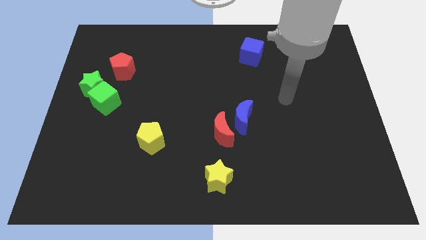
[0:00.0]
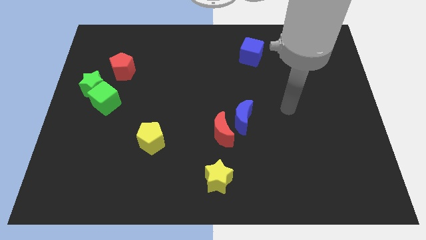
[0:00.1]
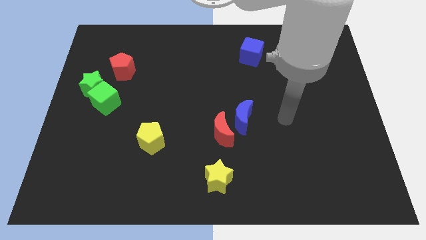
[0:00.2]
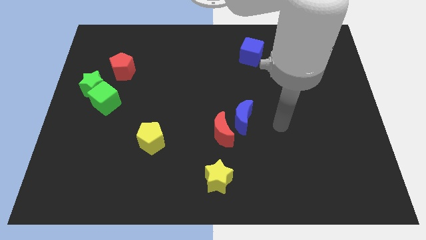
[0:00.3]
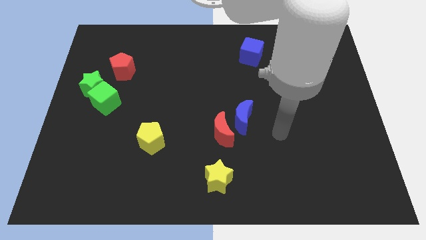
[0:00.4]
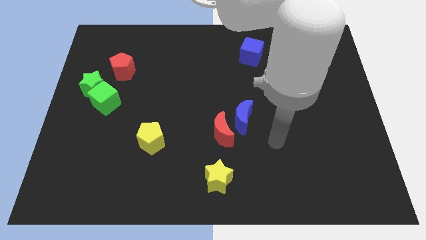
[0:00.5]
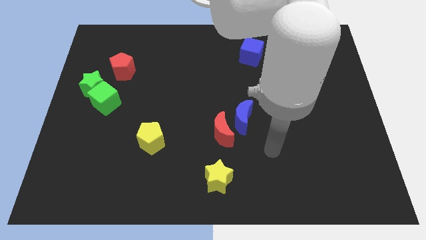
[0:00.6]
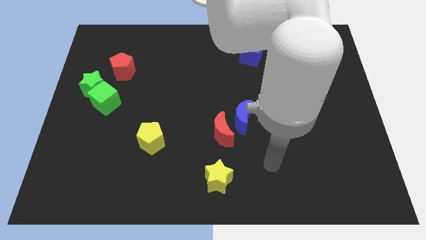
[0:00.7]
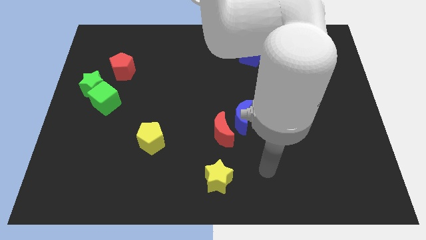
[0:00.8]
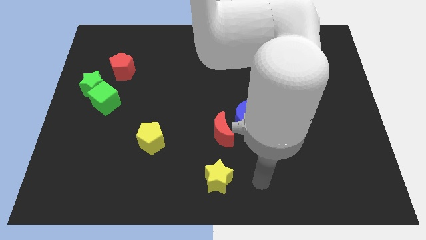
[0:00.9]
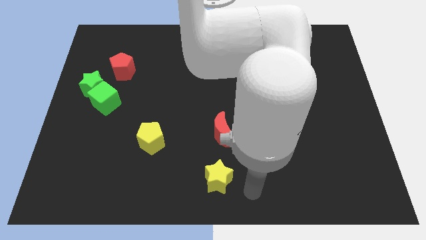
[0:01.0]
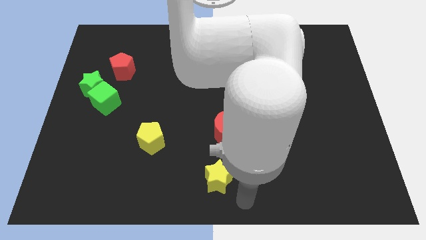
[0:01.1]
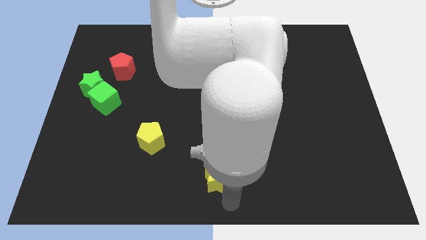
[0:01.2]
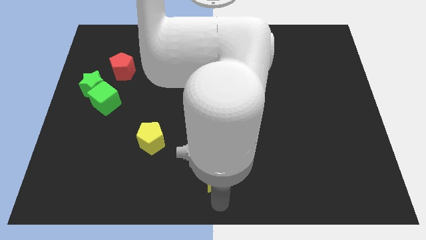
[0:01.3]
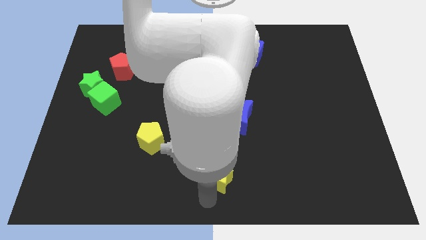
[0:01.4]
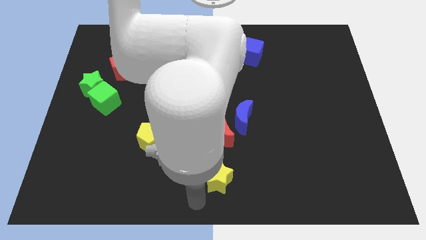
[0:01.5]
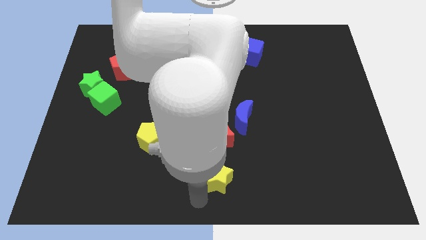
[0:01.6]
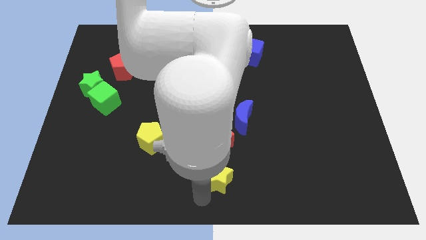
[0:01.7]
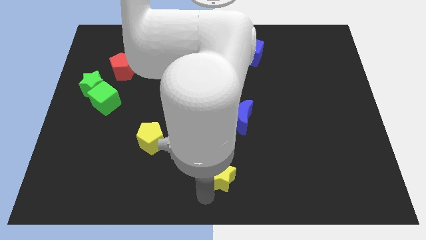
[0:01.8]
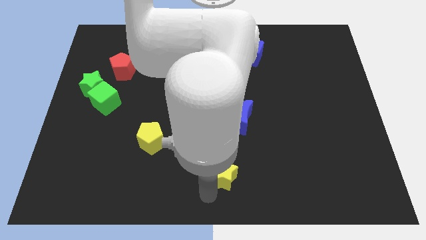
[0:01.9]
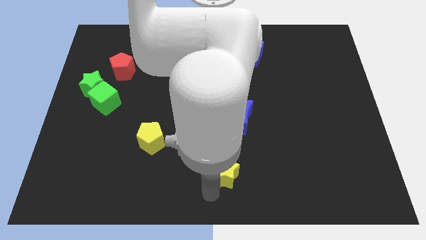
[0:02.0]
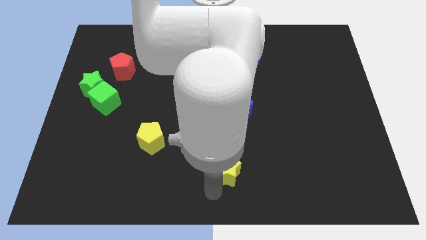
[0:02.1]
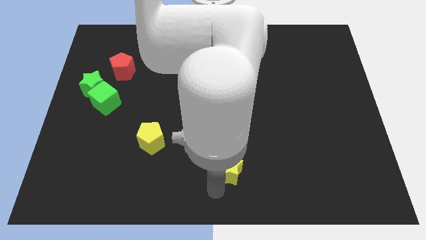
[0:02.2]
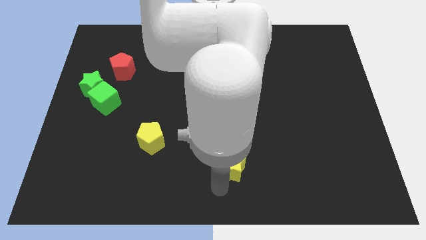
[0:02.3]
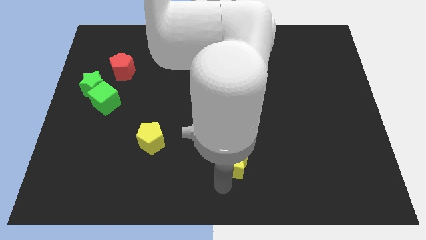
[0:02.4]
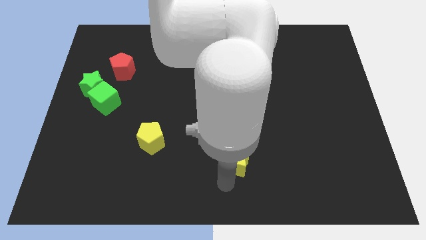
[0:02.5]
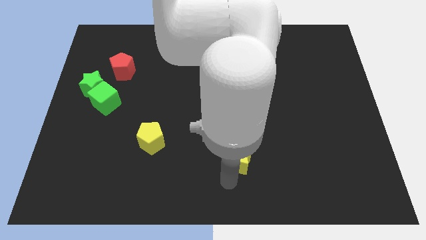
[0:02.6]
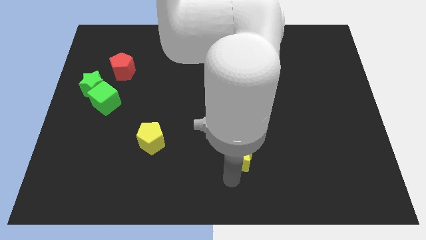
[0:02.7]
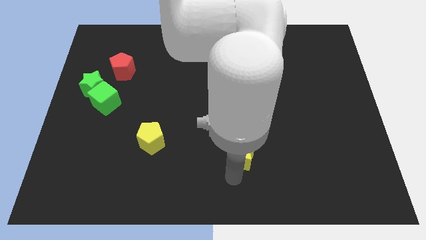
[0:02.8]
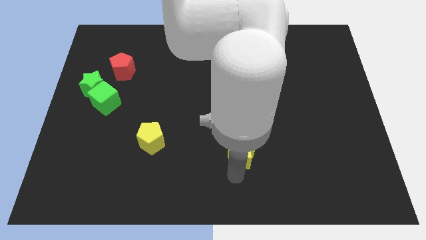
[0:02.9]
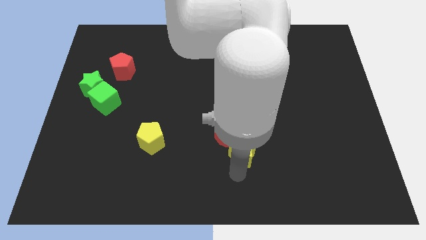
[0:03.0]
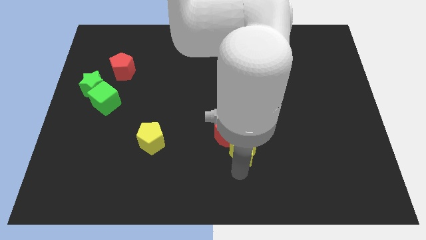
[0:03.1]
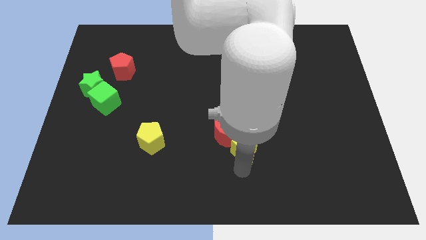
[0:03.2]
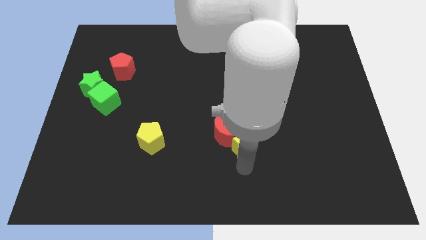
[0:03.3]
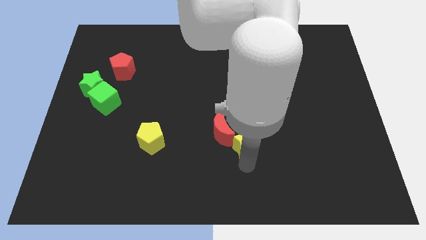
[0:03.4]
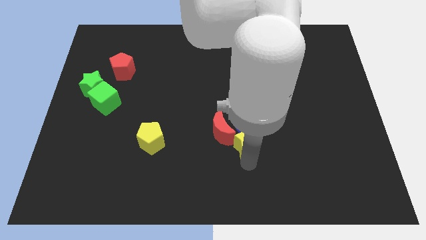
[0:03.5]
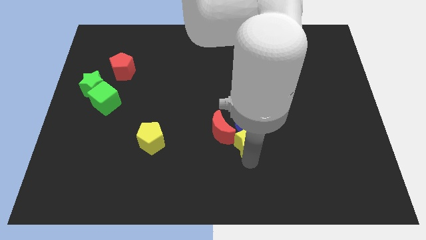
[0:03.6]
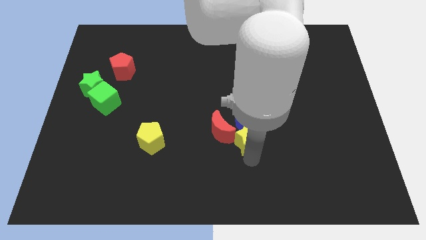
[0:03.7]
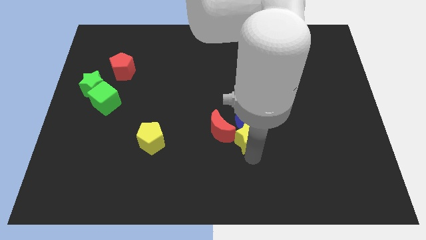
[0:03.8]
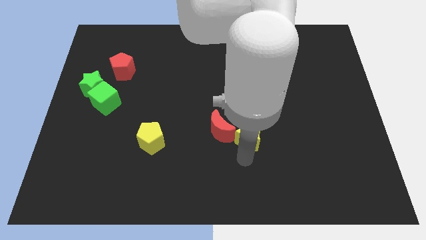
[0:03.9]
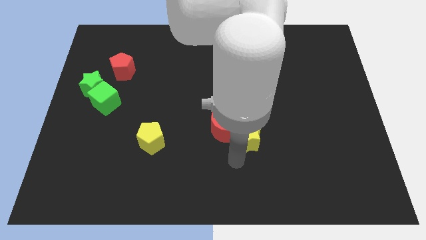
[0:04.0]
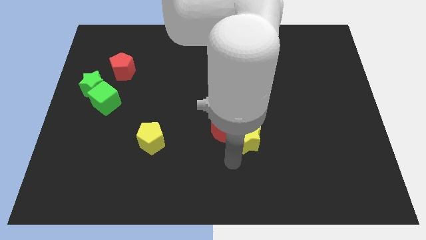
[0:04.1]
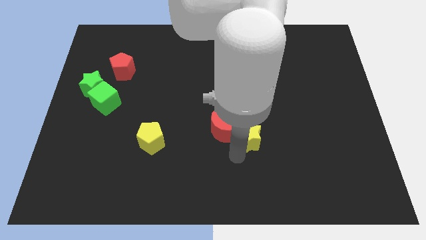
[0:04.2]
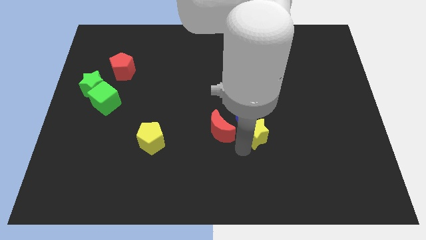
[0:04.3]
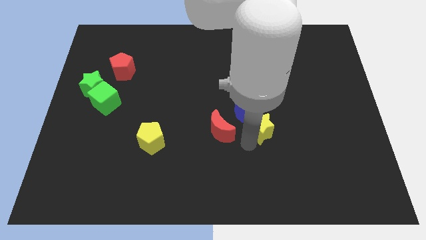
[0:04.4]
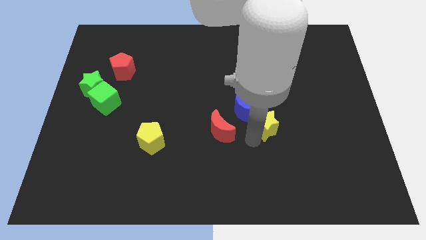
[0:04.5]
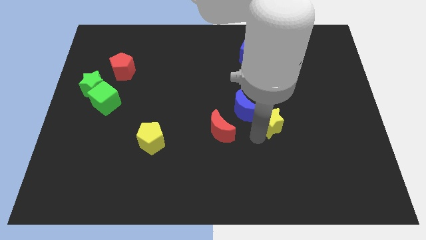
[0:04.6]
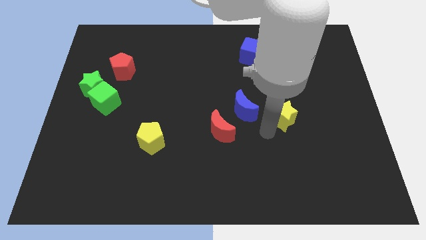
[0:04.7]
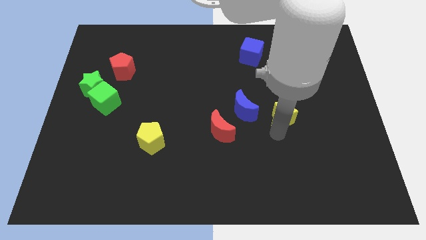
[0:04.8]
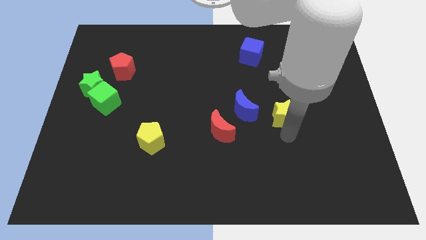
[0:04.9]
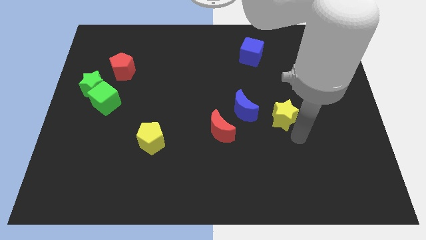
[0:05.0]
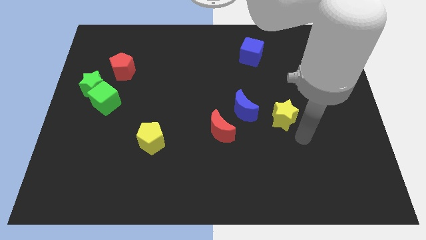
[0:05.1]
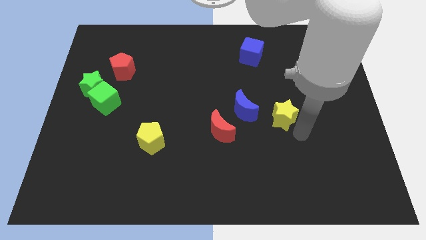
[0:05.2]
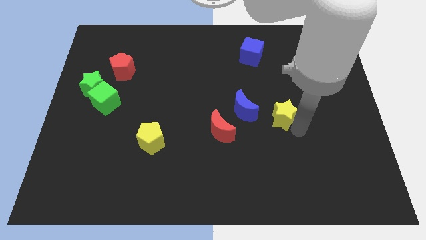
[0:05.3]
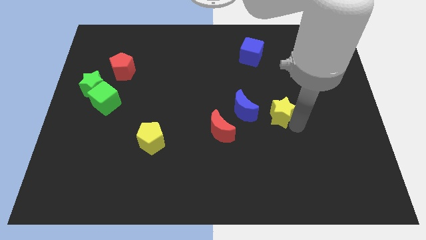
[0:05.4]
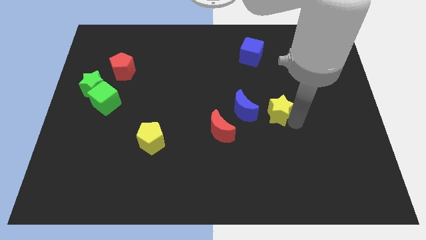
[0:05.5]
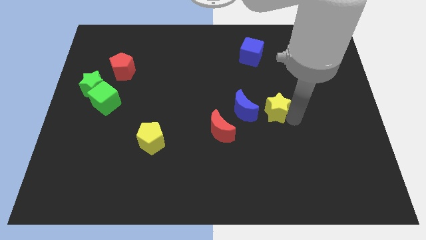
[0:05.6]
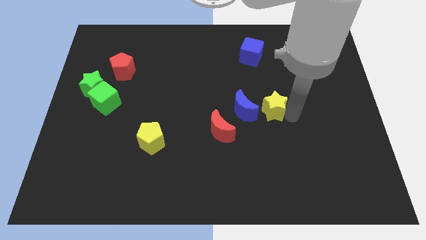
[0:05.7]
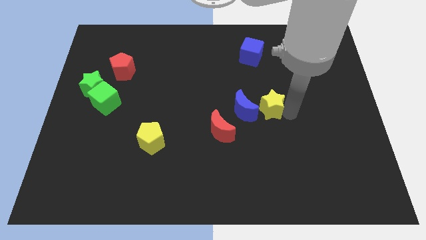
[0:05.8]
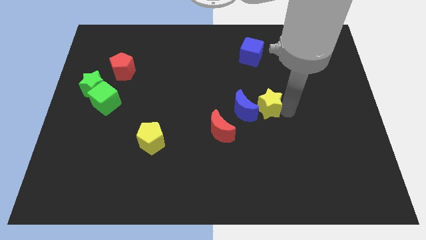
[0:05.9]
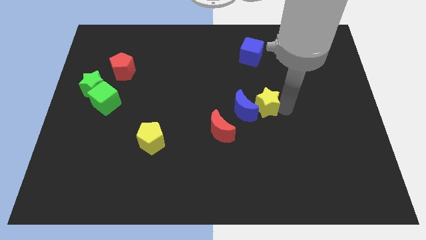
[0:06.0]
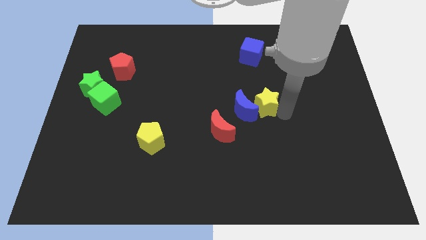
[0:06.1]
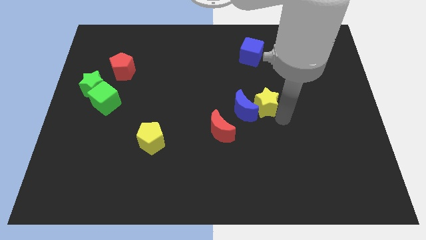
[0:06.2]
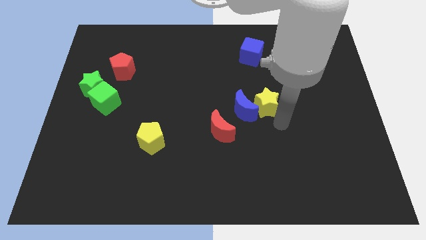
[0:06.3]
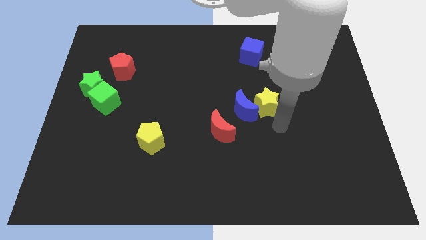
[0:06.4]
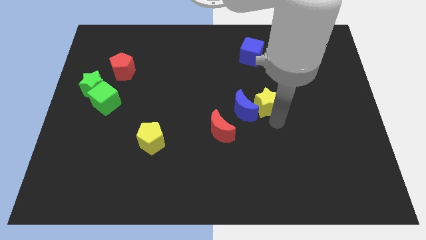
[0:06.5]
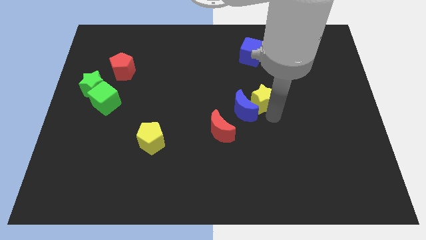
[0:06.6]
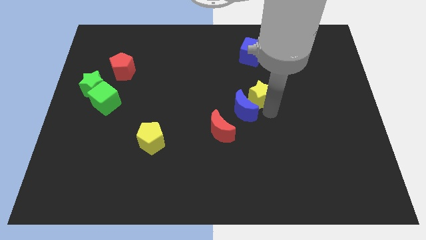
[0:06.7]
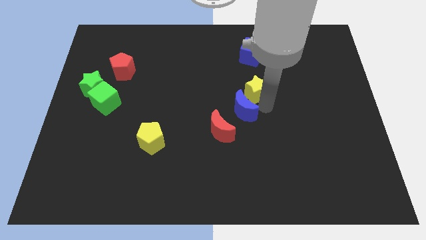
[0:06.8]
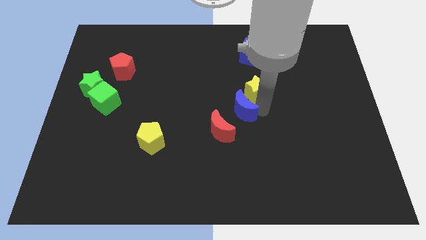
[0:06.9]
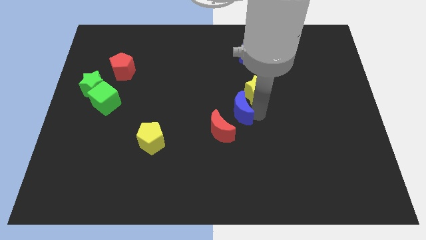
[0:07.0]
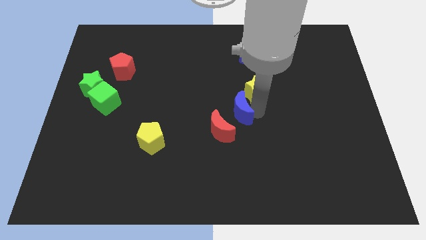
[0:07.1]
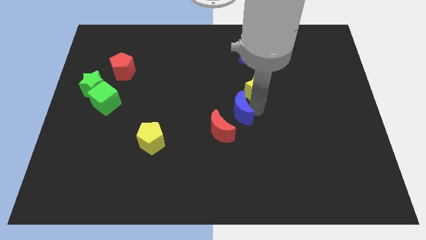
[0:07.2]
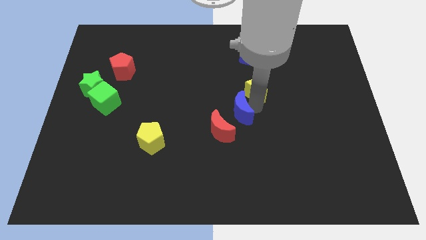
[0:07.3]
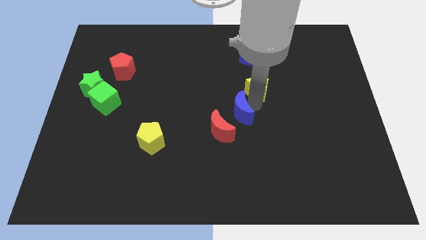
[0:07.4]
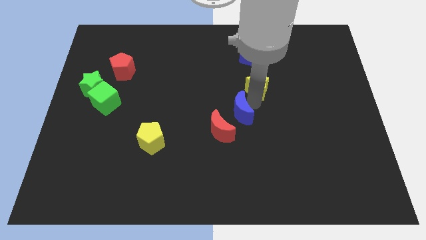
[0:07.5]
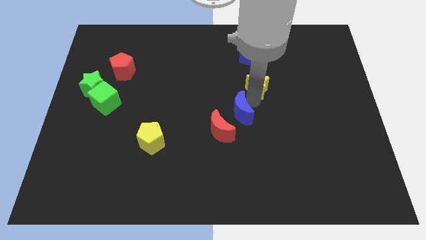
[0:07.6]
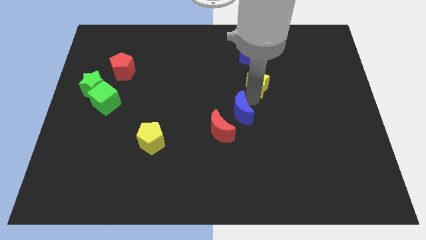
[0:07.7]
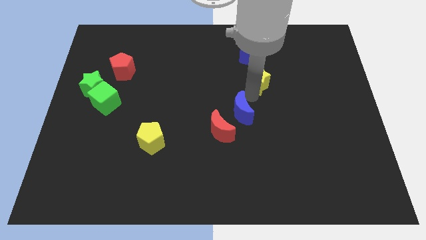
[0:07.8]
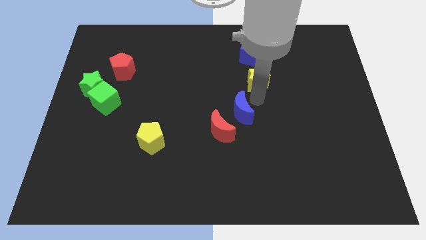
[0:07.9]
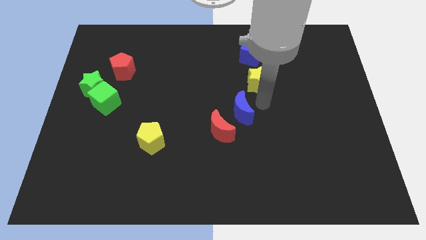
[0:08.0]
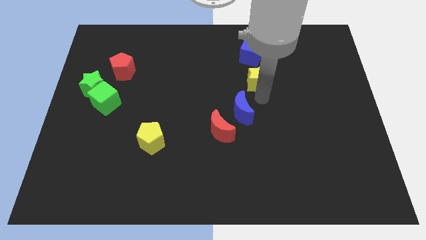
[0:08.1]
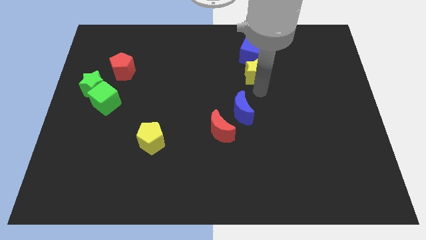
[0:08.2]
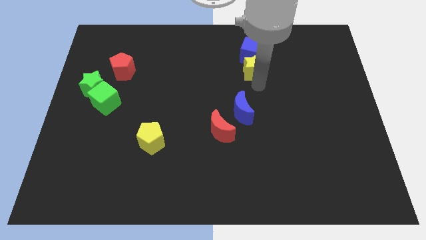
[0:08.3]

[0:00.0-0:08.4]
slide the yellow star towards the blue cube
